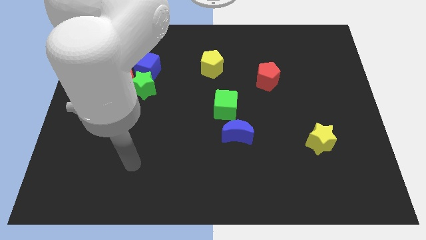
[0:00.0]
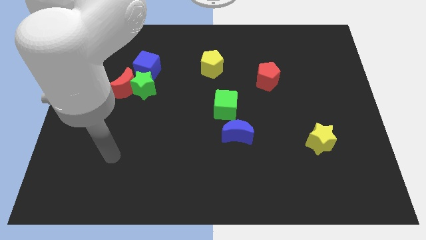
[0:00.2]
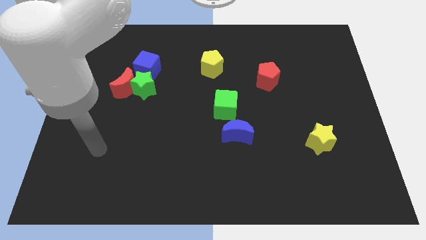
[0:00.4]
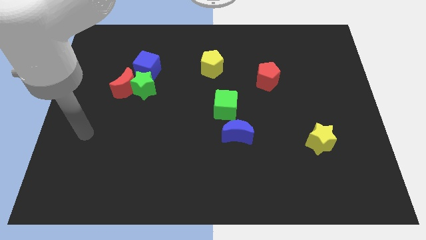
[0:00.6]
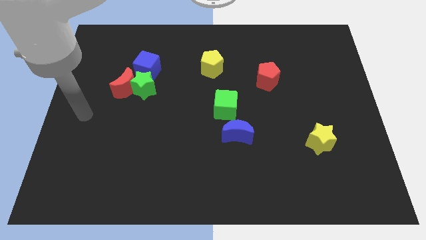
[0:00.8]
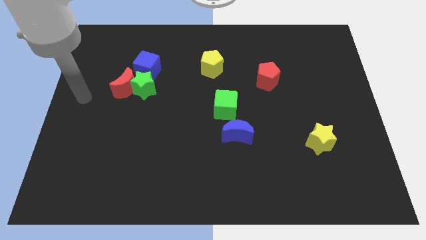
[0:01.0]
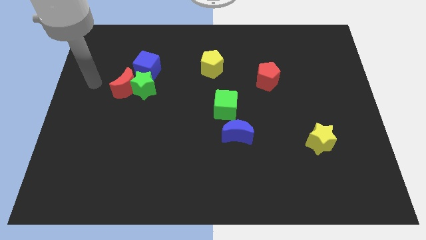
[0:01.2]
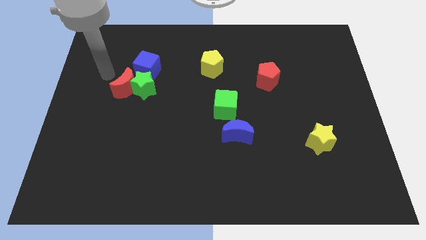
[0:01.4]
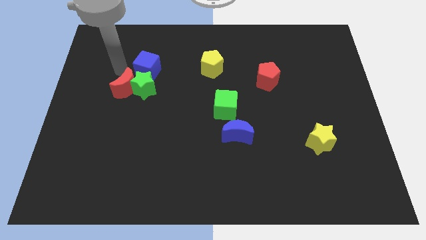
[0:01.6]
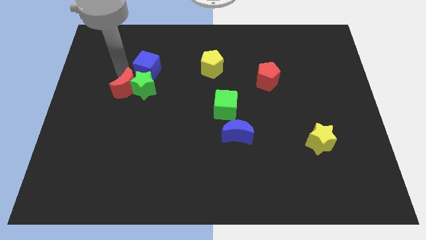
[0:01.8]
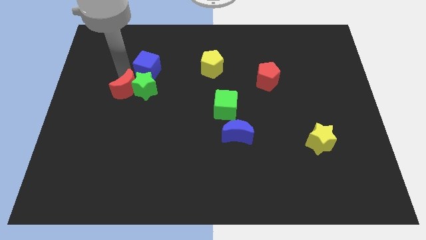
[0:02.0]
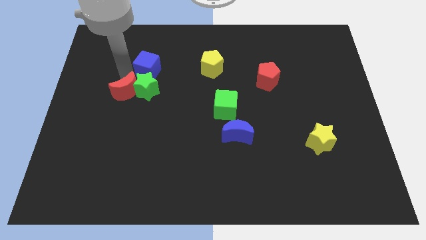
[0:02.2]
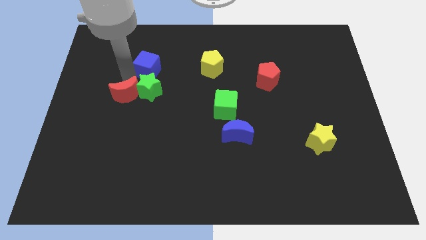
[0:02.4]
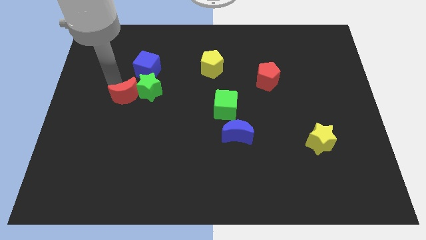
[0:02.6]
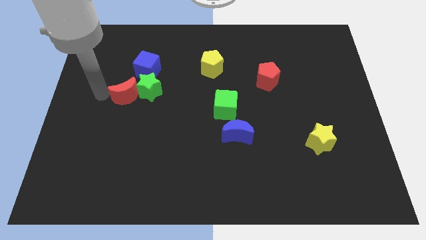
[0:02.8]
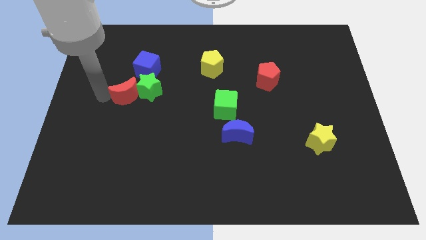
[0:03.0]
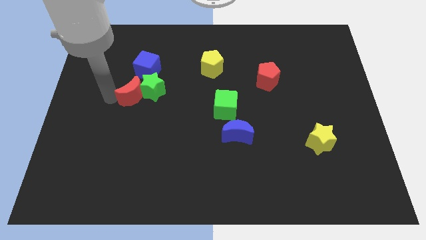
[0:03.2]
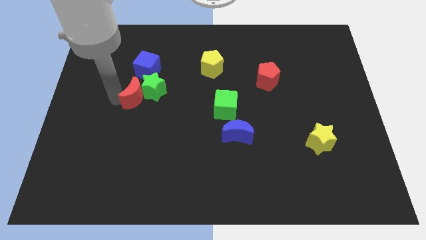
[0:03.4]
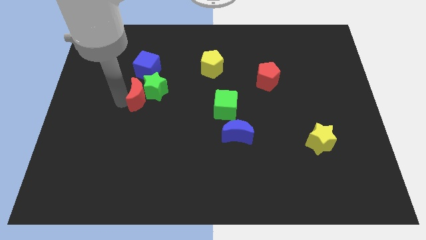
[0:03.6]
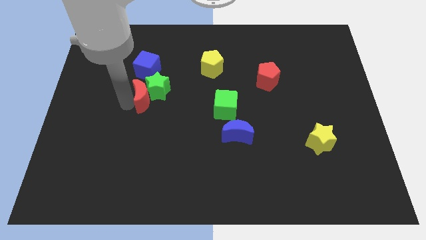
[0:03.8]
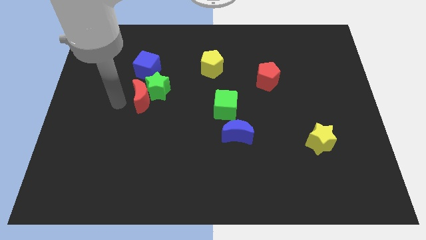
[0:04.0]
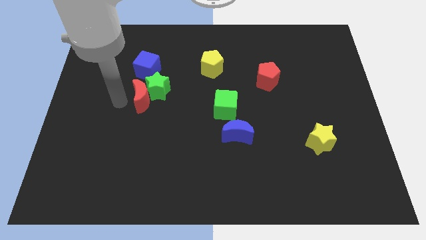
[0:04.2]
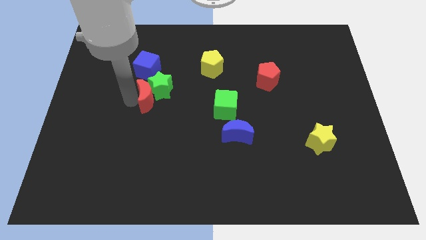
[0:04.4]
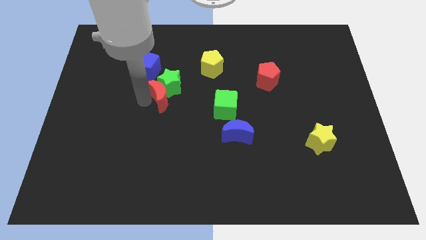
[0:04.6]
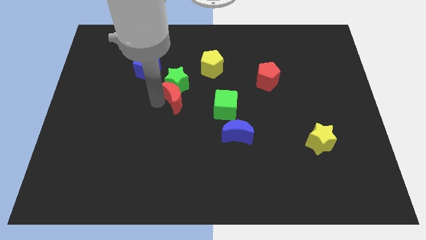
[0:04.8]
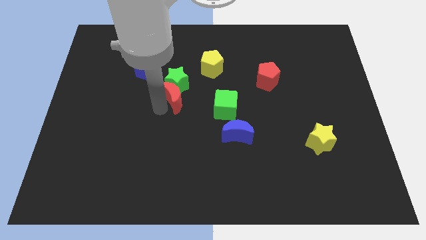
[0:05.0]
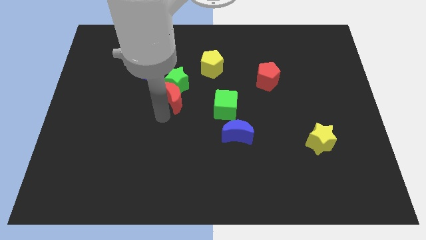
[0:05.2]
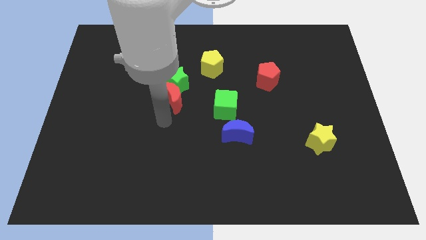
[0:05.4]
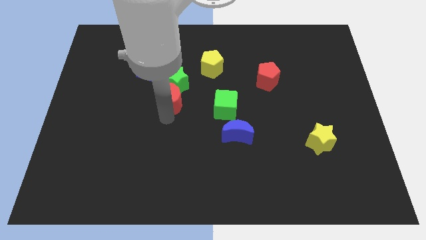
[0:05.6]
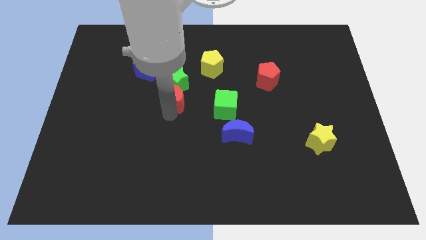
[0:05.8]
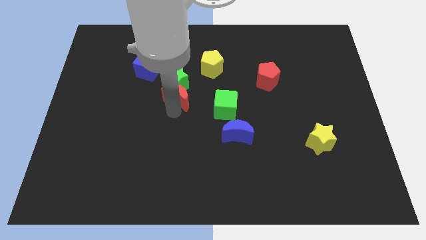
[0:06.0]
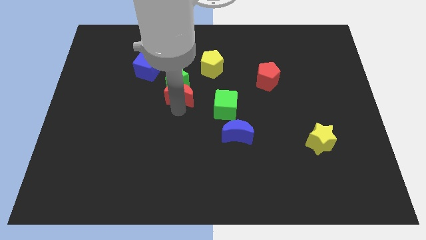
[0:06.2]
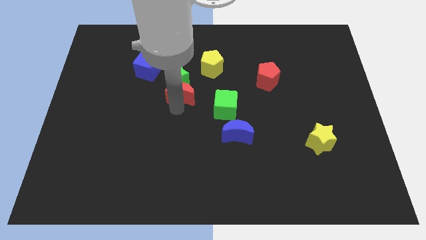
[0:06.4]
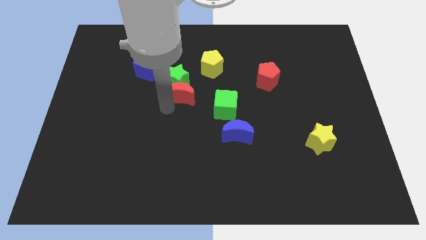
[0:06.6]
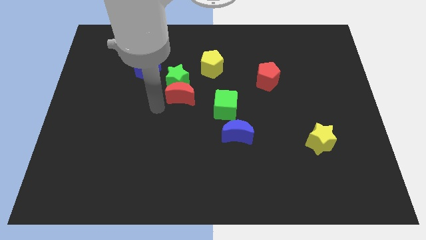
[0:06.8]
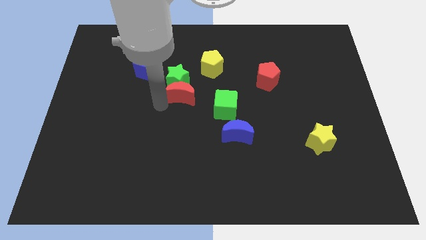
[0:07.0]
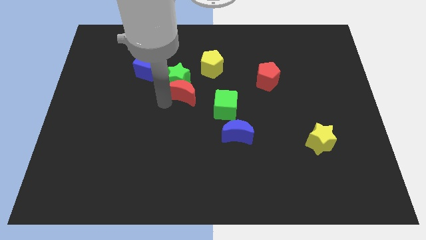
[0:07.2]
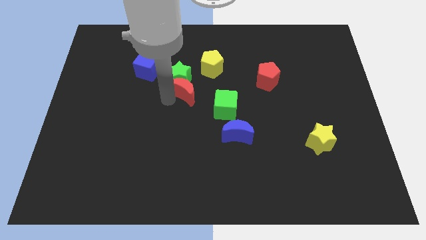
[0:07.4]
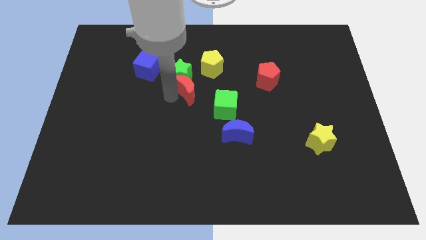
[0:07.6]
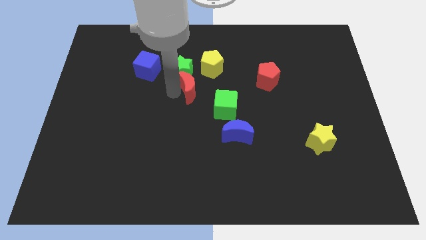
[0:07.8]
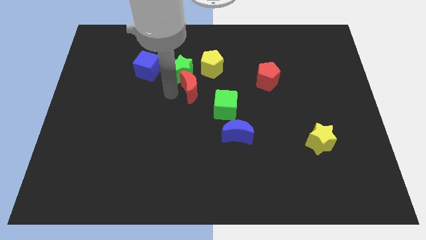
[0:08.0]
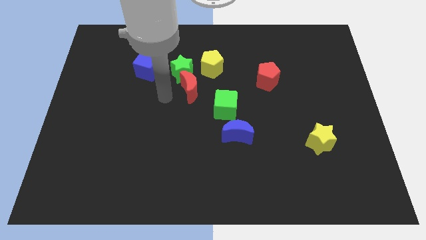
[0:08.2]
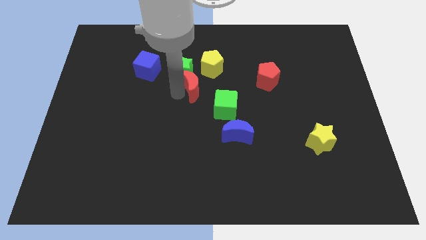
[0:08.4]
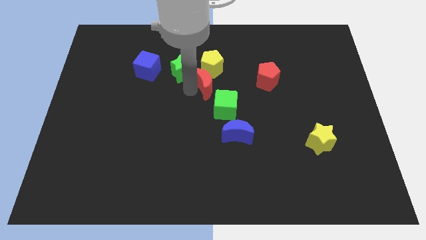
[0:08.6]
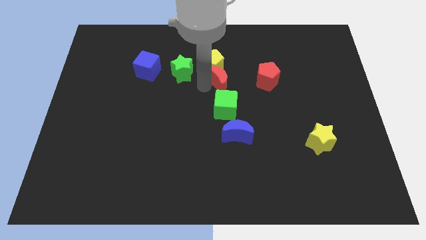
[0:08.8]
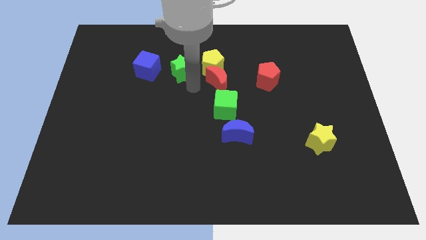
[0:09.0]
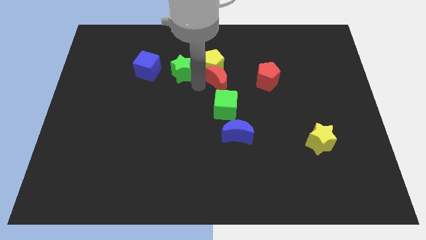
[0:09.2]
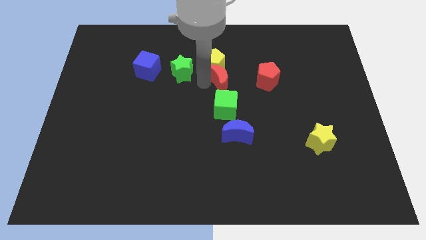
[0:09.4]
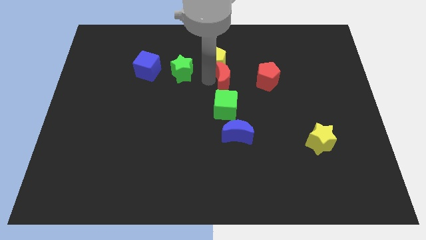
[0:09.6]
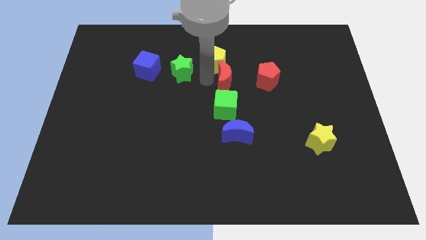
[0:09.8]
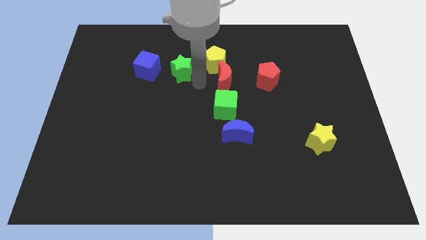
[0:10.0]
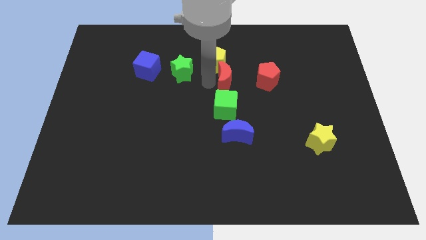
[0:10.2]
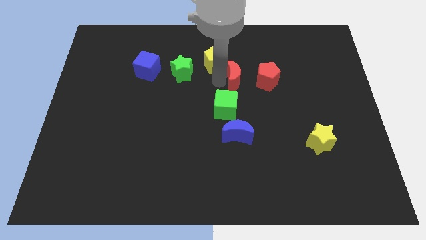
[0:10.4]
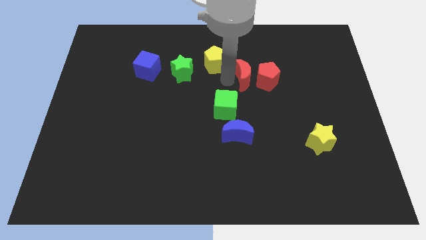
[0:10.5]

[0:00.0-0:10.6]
push the red moon next to the red pentagon

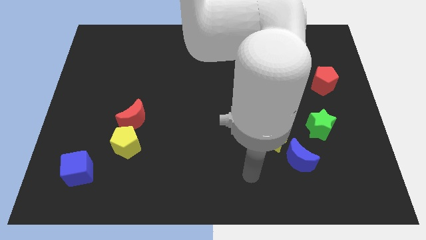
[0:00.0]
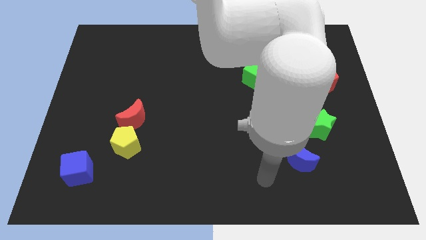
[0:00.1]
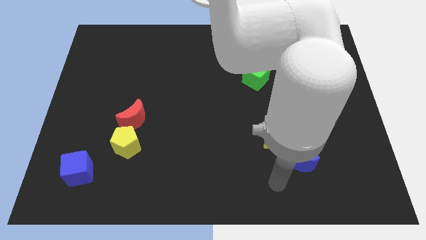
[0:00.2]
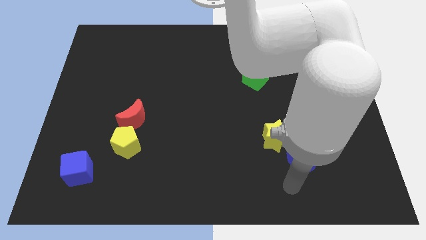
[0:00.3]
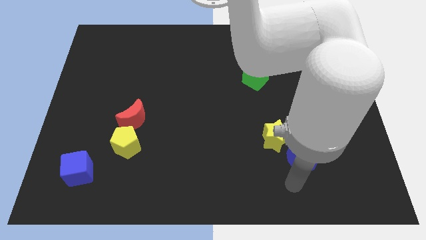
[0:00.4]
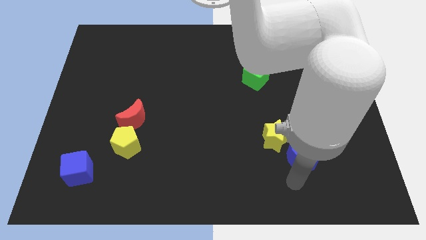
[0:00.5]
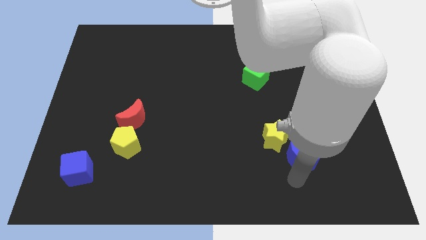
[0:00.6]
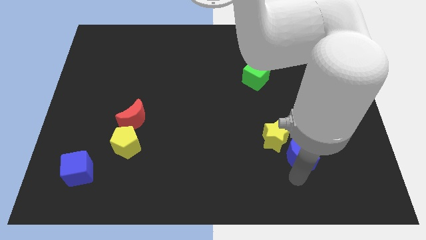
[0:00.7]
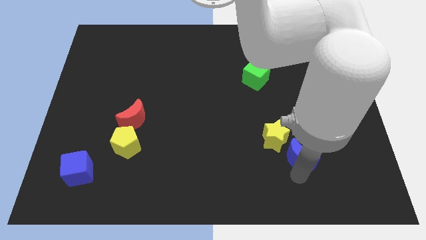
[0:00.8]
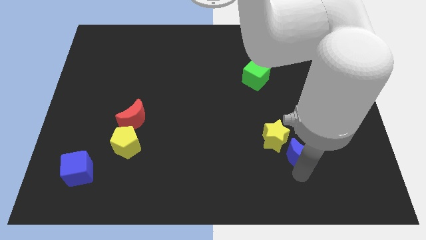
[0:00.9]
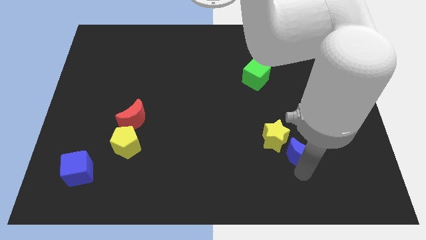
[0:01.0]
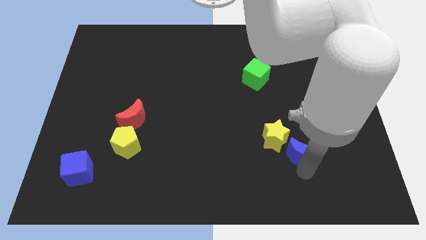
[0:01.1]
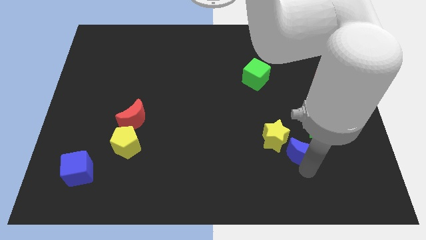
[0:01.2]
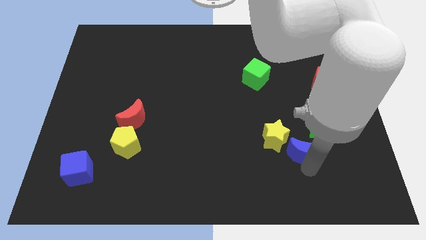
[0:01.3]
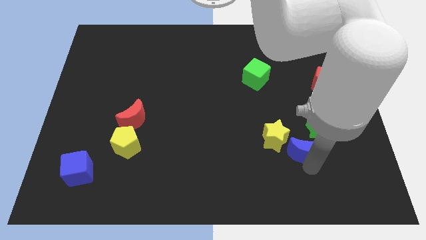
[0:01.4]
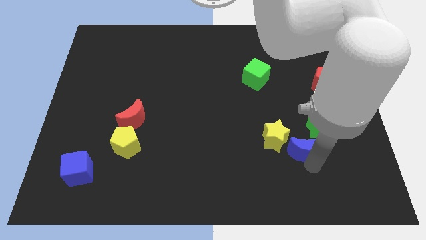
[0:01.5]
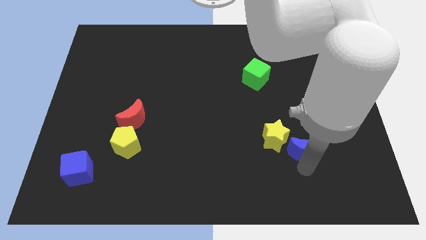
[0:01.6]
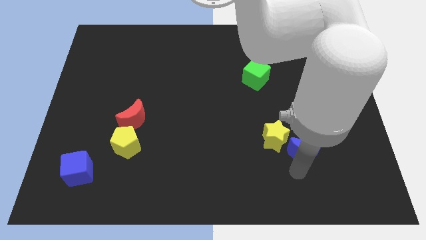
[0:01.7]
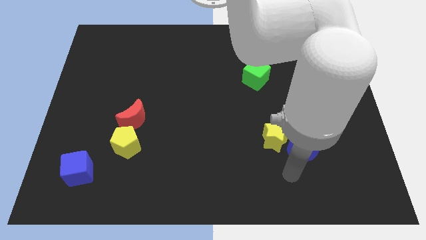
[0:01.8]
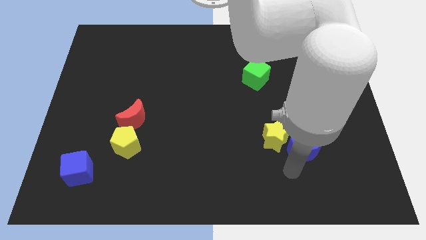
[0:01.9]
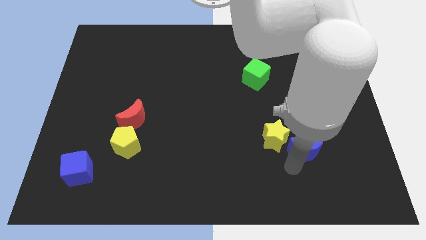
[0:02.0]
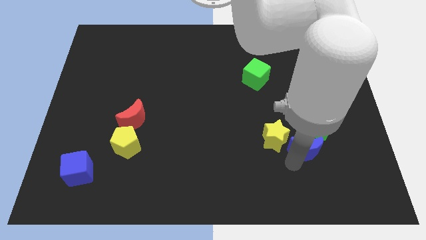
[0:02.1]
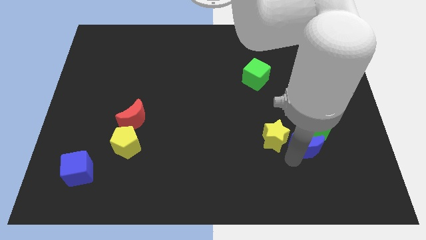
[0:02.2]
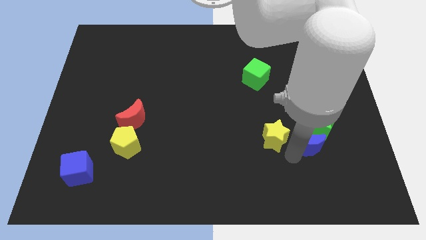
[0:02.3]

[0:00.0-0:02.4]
slide the blue moon towards the green star
